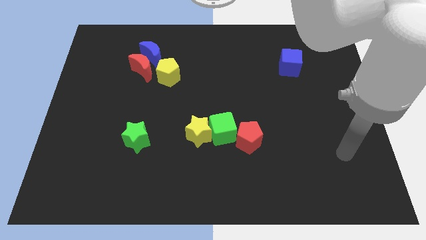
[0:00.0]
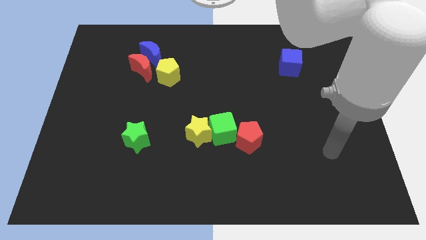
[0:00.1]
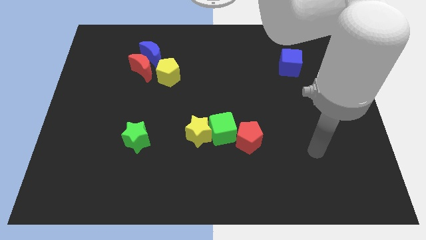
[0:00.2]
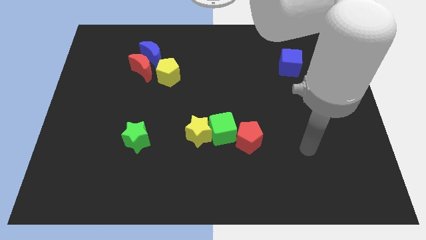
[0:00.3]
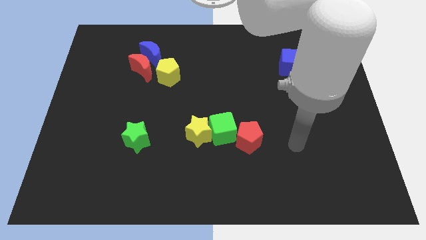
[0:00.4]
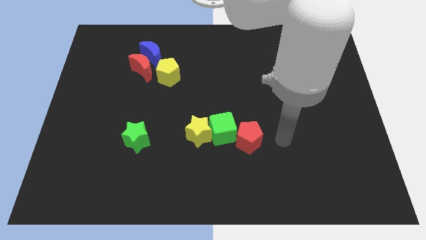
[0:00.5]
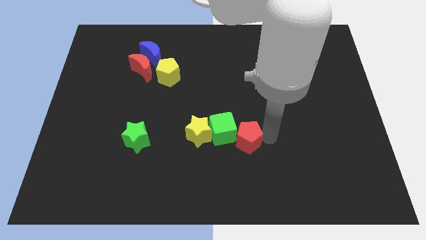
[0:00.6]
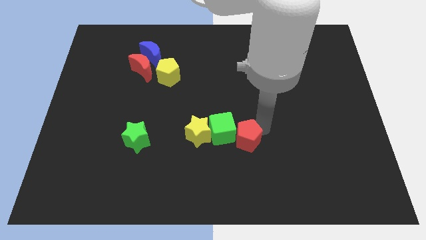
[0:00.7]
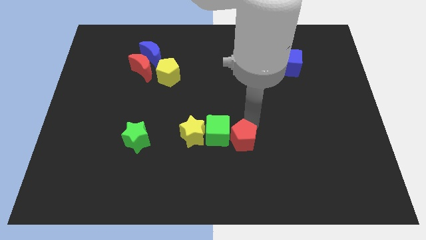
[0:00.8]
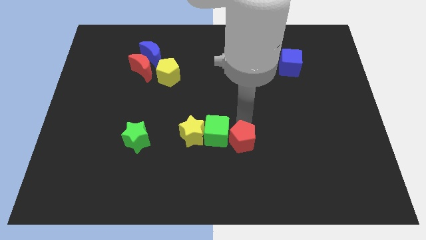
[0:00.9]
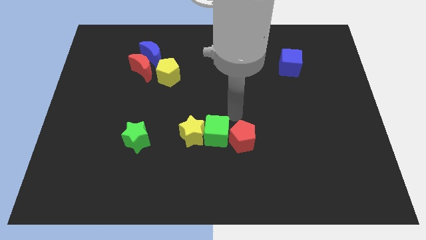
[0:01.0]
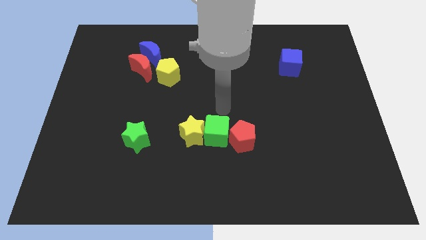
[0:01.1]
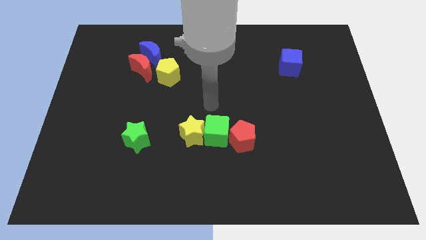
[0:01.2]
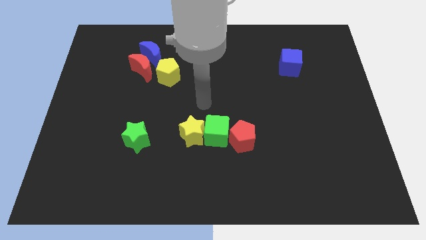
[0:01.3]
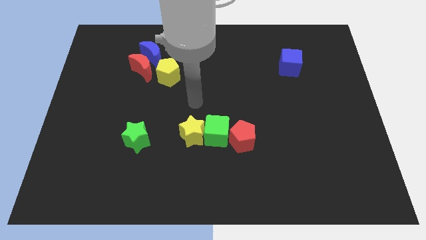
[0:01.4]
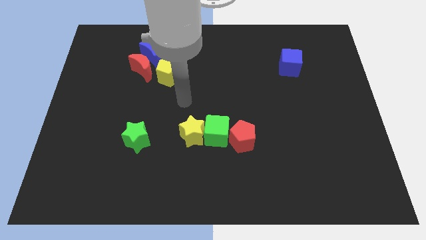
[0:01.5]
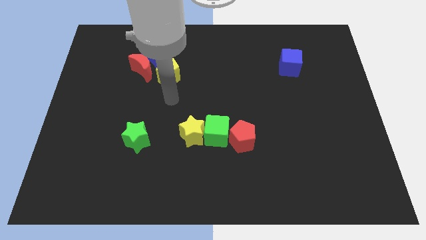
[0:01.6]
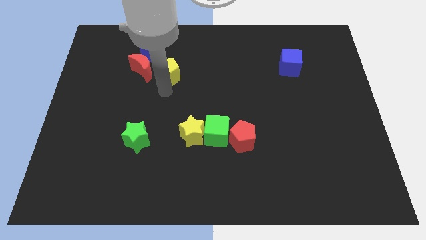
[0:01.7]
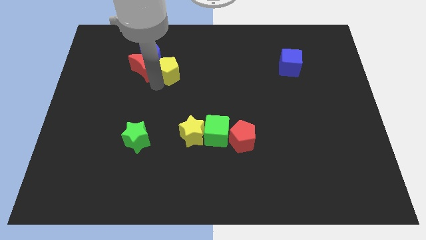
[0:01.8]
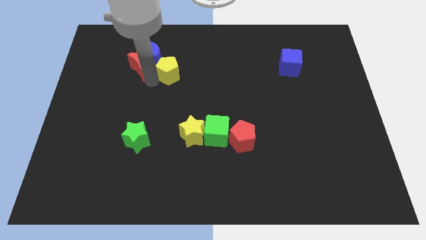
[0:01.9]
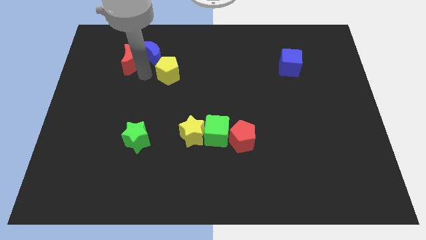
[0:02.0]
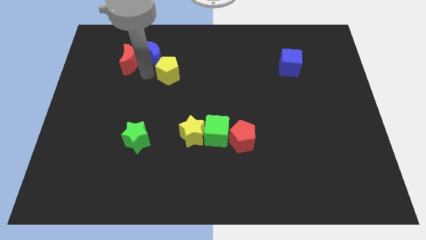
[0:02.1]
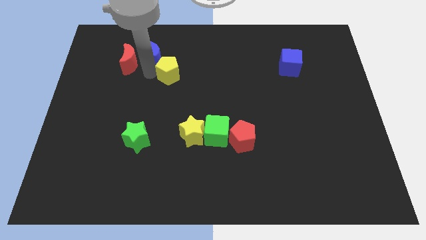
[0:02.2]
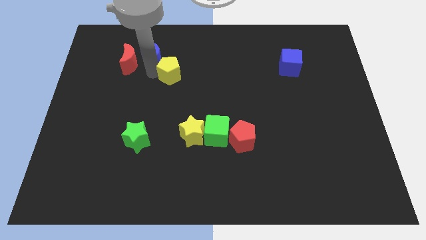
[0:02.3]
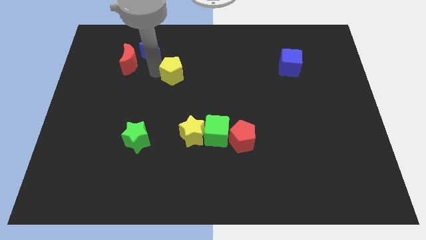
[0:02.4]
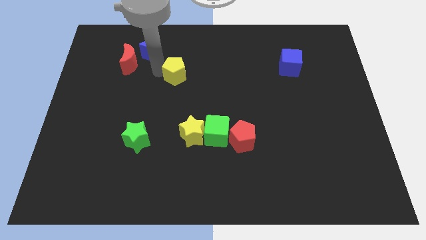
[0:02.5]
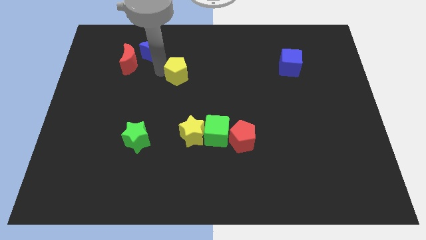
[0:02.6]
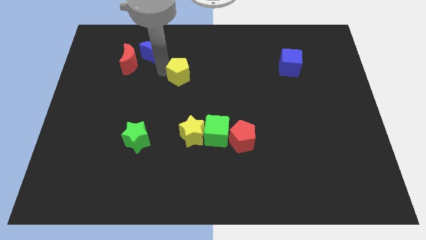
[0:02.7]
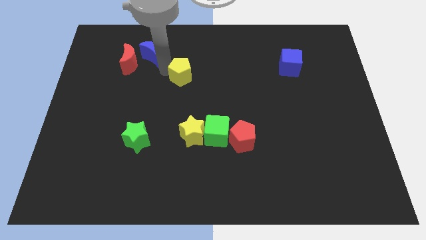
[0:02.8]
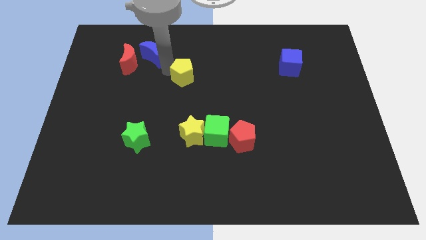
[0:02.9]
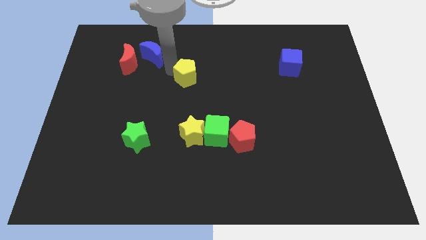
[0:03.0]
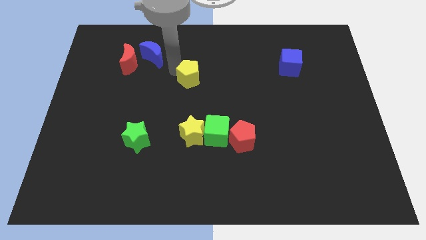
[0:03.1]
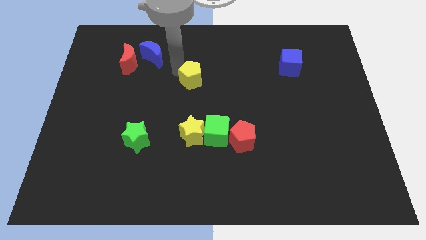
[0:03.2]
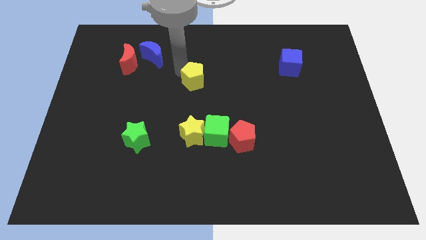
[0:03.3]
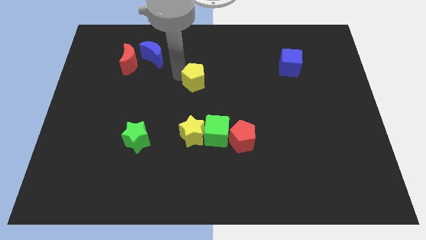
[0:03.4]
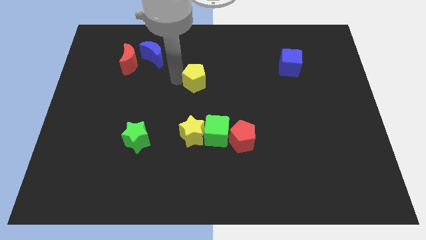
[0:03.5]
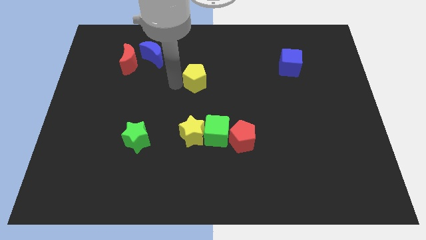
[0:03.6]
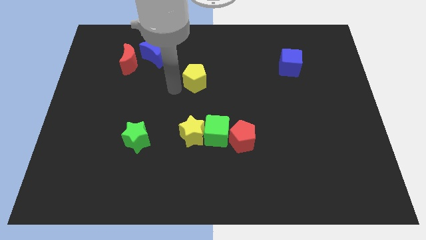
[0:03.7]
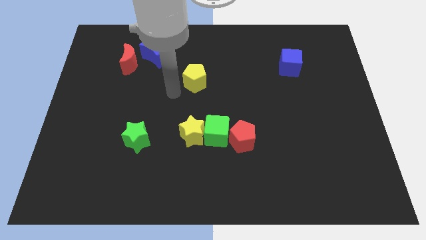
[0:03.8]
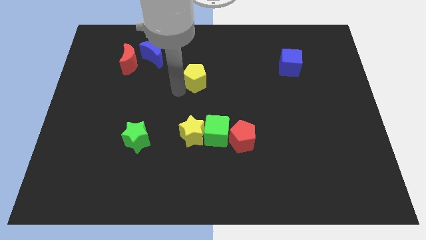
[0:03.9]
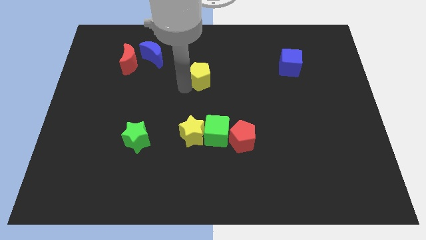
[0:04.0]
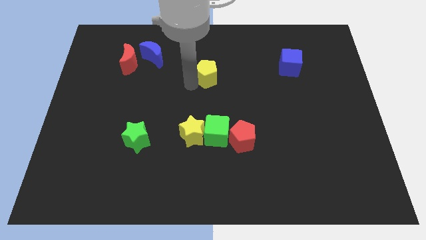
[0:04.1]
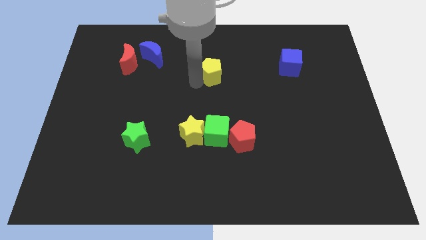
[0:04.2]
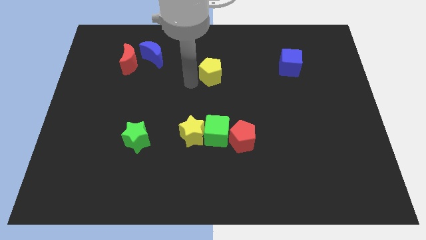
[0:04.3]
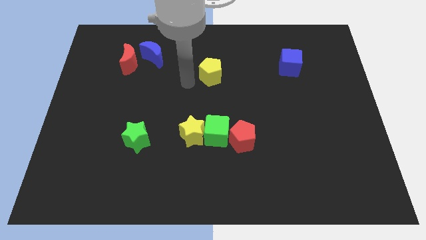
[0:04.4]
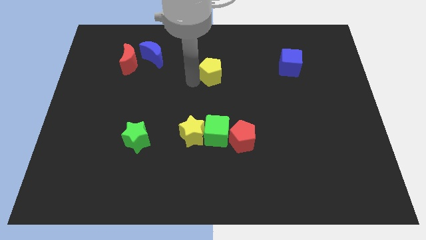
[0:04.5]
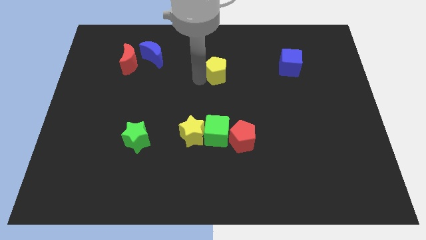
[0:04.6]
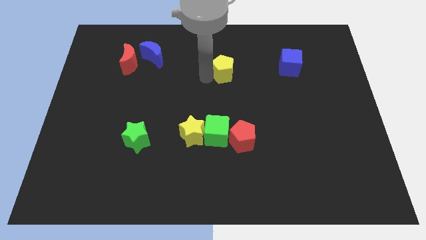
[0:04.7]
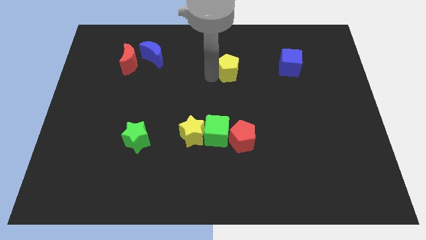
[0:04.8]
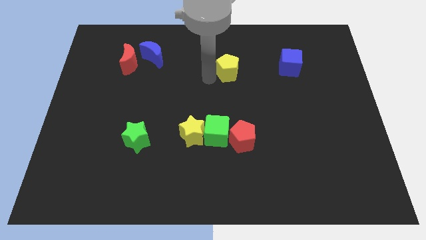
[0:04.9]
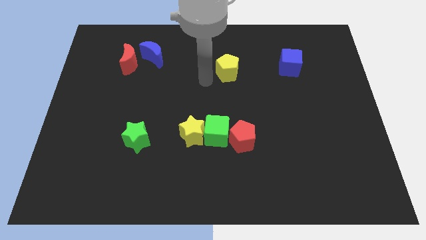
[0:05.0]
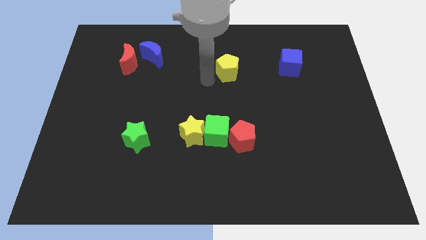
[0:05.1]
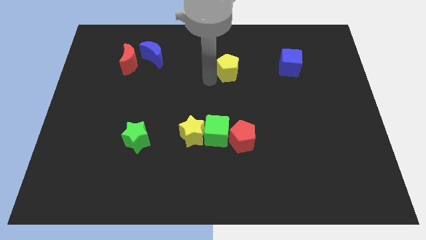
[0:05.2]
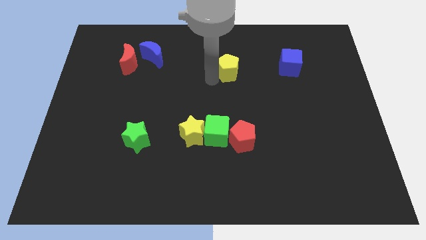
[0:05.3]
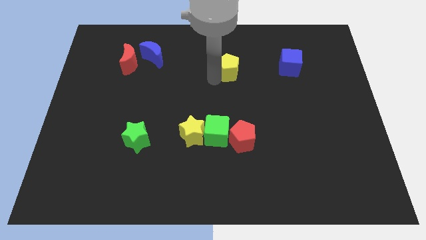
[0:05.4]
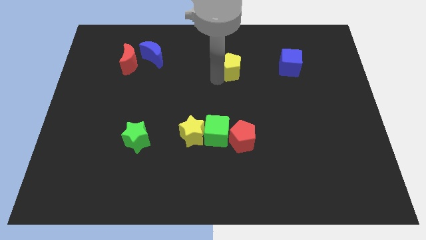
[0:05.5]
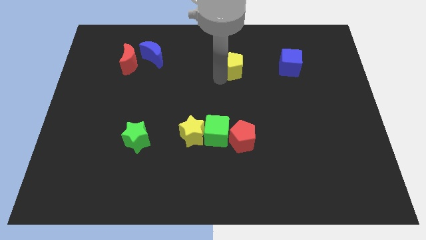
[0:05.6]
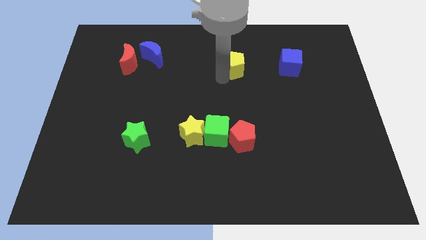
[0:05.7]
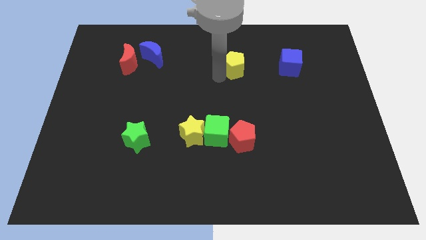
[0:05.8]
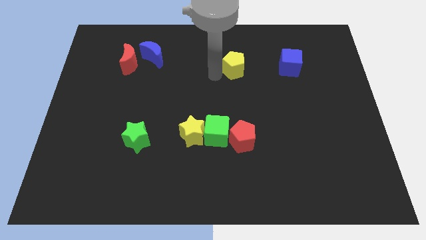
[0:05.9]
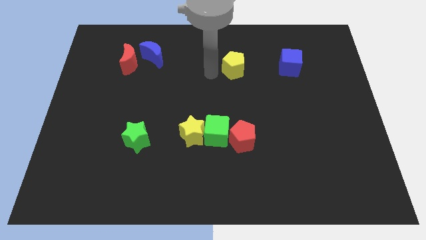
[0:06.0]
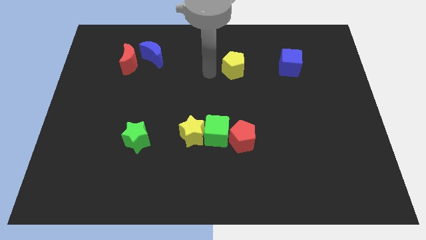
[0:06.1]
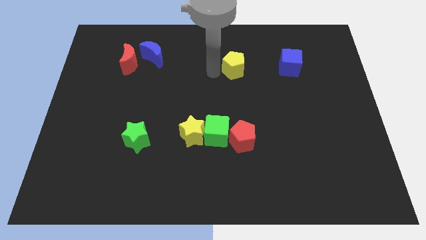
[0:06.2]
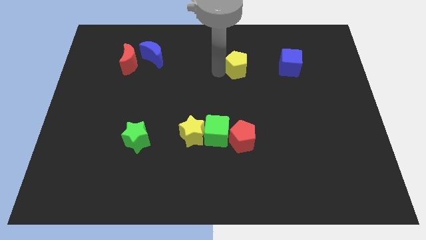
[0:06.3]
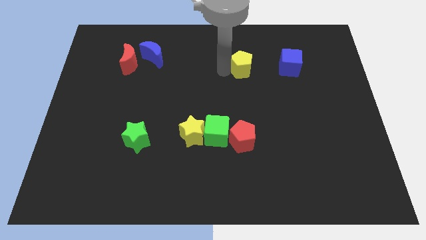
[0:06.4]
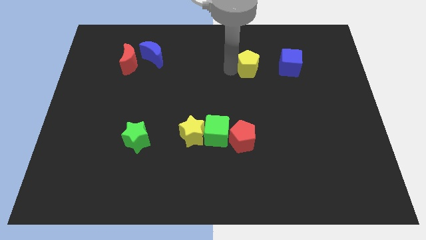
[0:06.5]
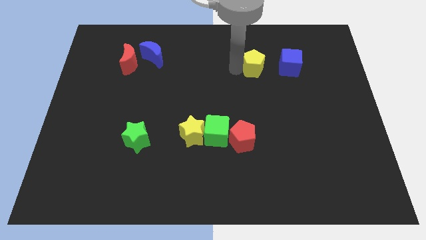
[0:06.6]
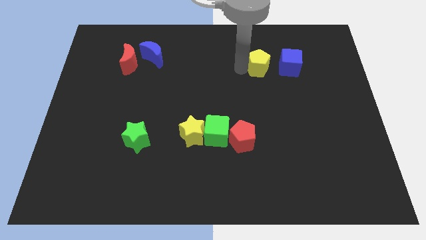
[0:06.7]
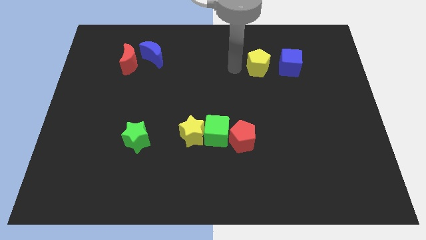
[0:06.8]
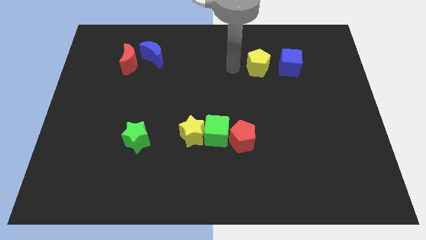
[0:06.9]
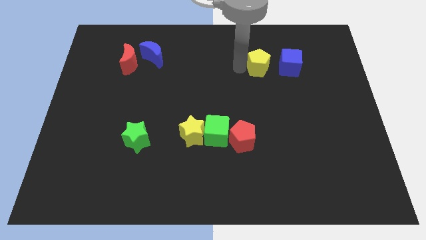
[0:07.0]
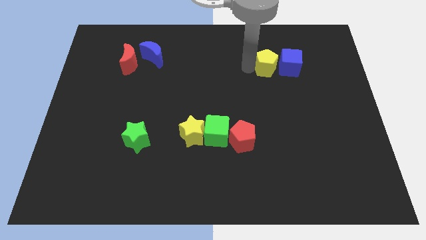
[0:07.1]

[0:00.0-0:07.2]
push the yellow pentagon towards the blue cube
